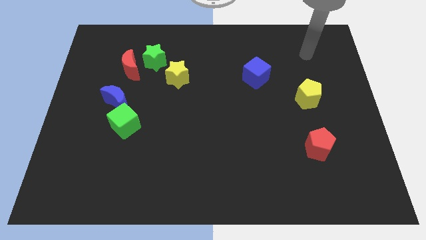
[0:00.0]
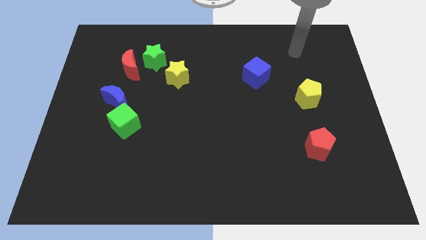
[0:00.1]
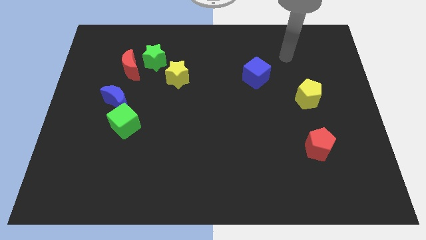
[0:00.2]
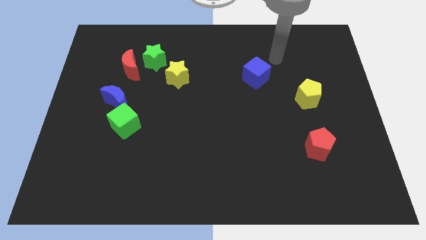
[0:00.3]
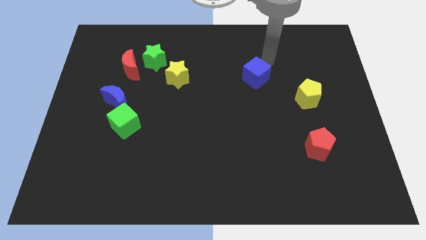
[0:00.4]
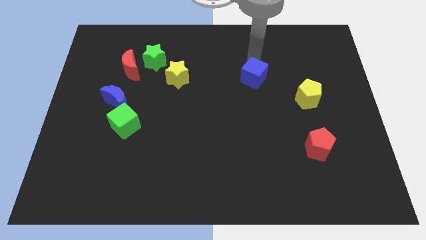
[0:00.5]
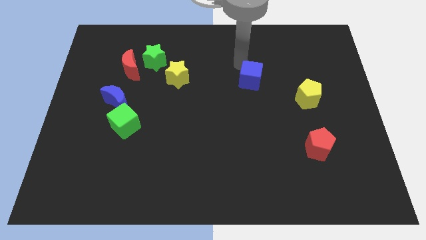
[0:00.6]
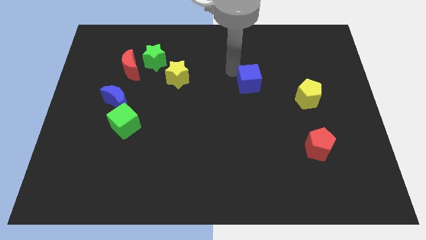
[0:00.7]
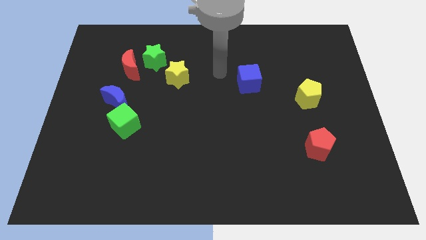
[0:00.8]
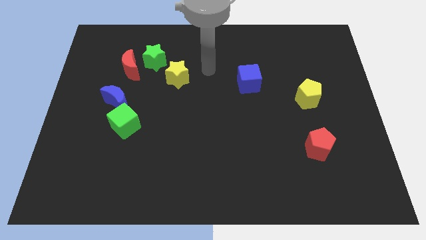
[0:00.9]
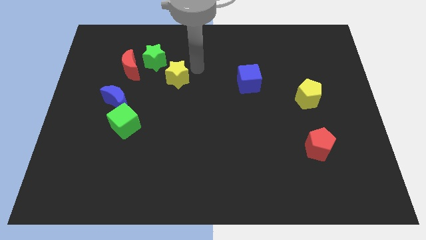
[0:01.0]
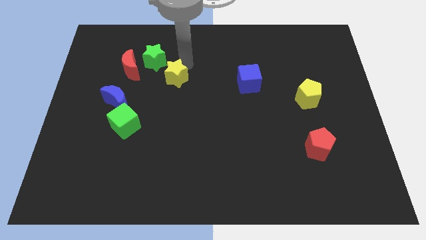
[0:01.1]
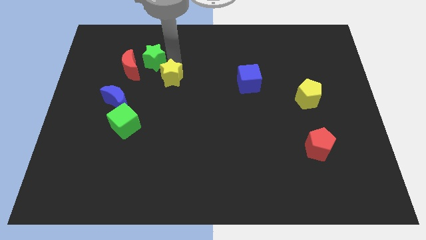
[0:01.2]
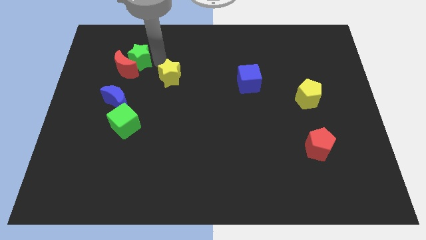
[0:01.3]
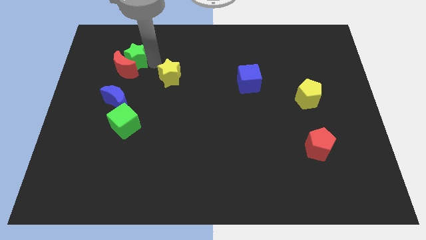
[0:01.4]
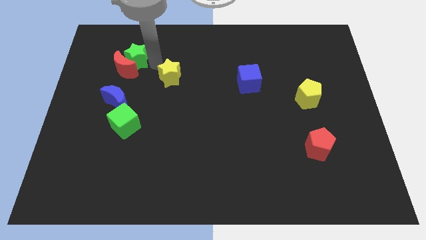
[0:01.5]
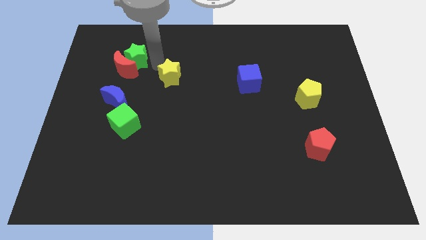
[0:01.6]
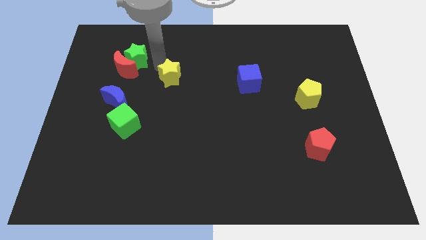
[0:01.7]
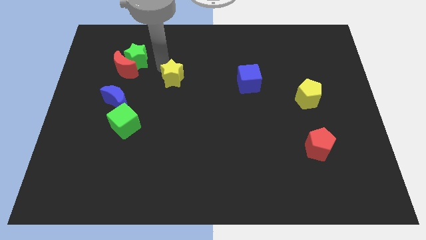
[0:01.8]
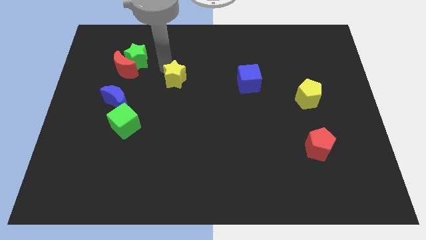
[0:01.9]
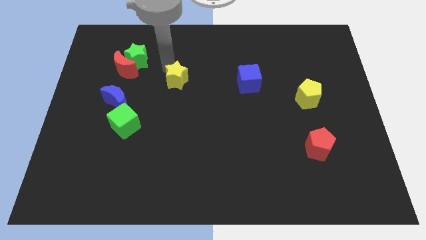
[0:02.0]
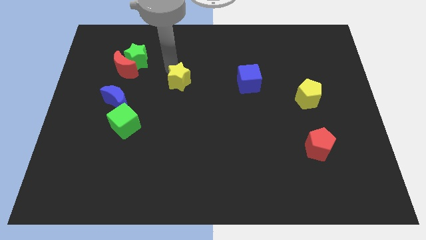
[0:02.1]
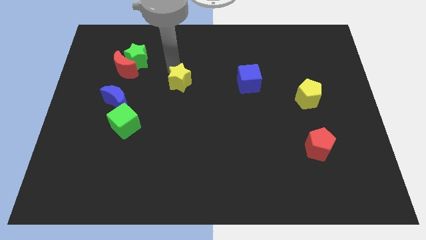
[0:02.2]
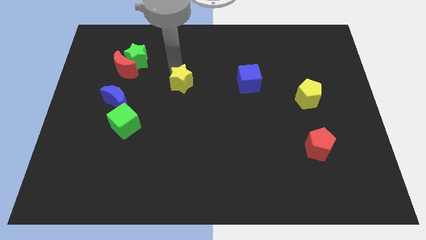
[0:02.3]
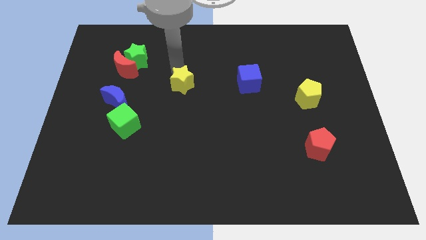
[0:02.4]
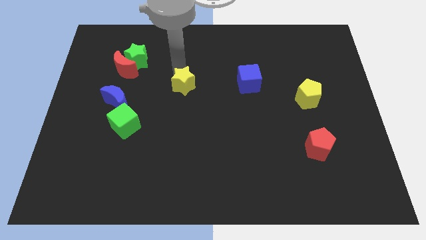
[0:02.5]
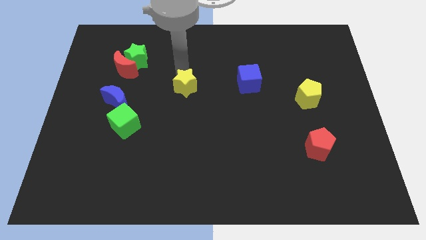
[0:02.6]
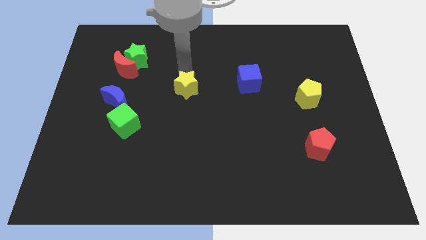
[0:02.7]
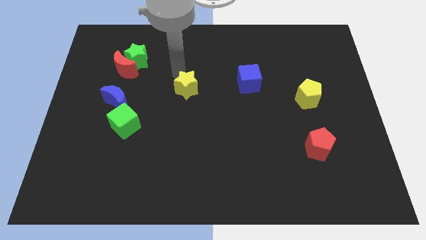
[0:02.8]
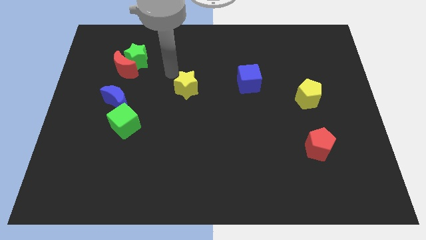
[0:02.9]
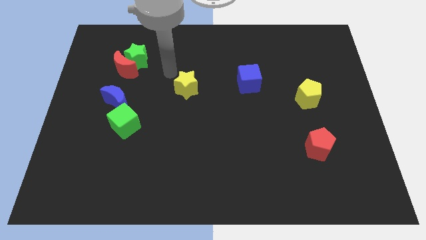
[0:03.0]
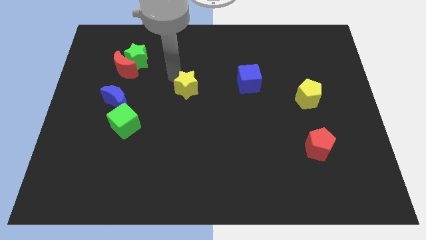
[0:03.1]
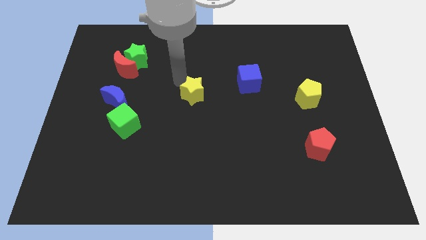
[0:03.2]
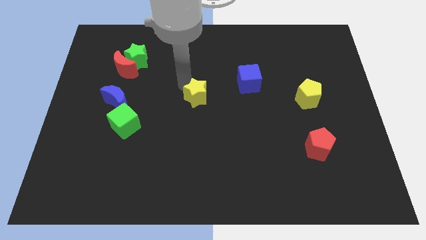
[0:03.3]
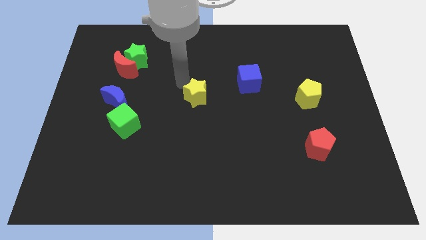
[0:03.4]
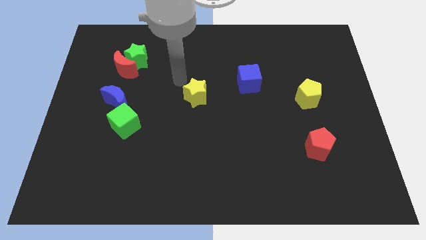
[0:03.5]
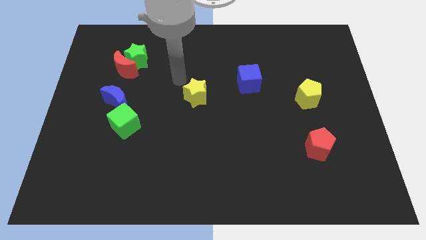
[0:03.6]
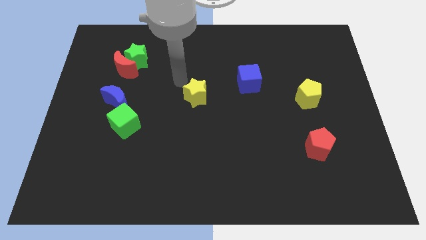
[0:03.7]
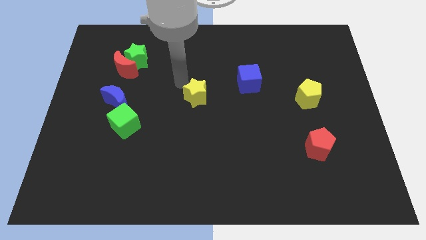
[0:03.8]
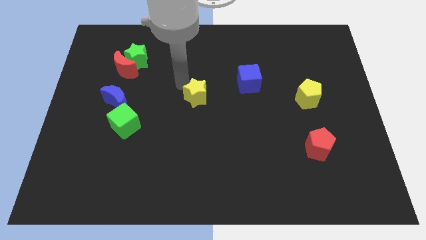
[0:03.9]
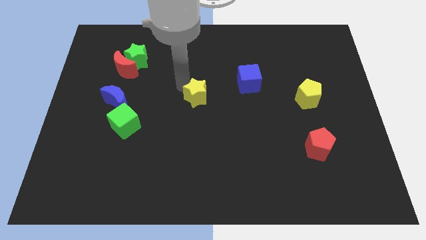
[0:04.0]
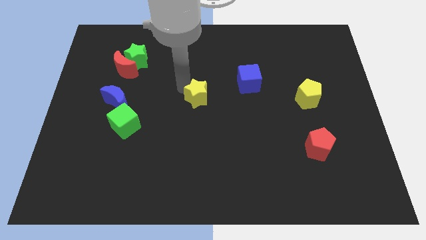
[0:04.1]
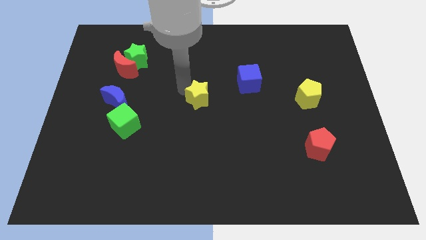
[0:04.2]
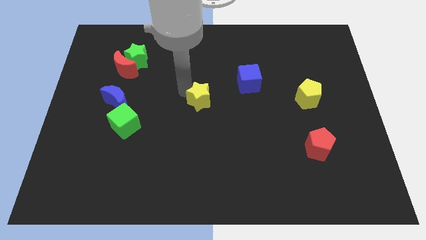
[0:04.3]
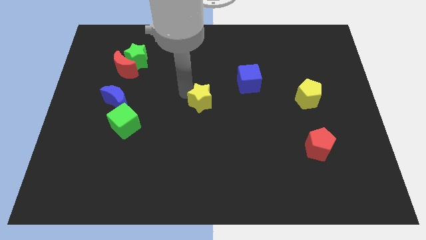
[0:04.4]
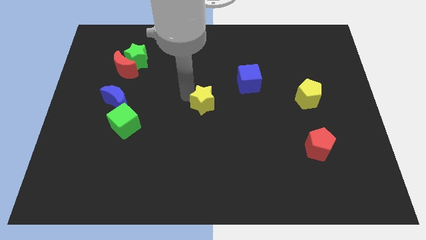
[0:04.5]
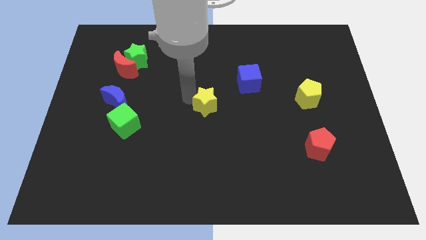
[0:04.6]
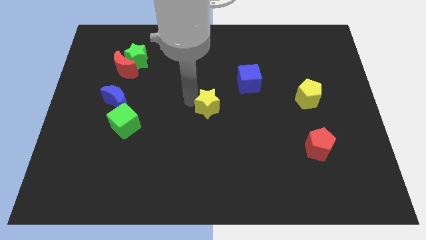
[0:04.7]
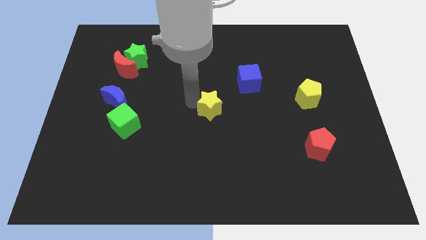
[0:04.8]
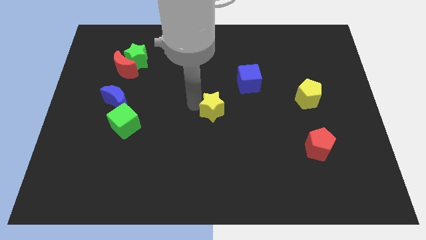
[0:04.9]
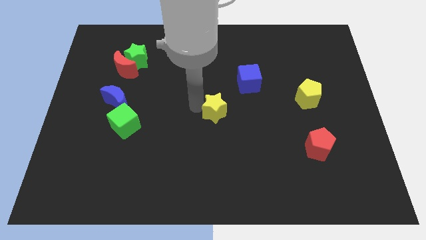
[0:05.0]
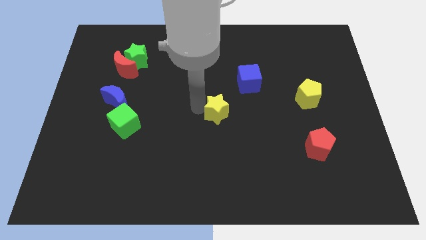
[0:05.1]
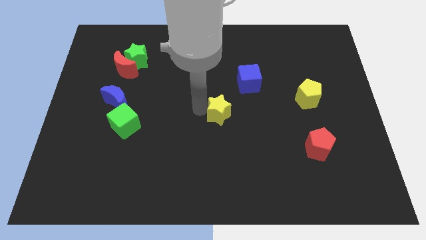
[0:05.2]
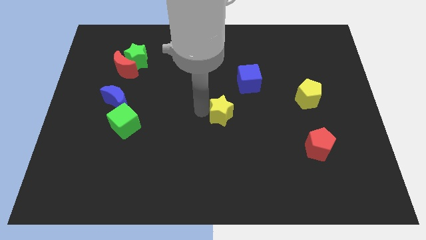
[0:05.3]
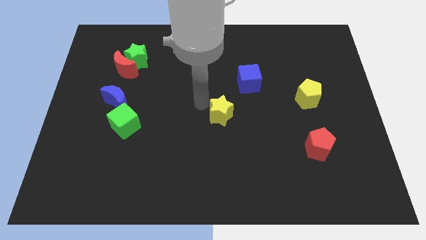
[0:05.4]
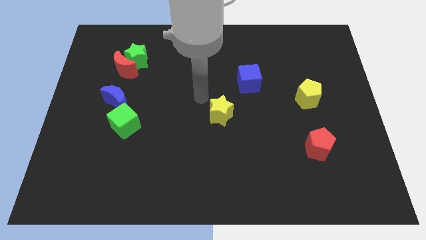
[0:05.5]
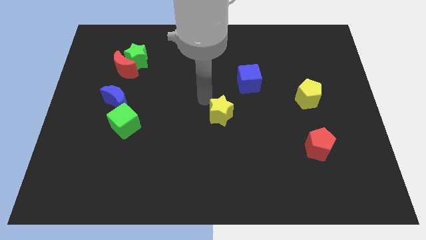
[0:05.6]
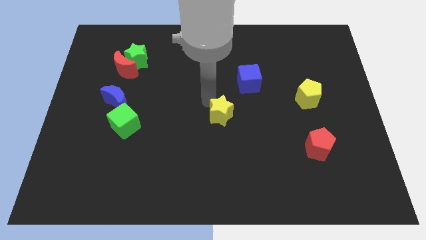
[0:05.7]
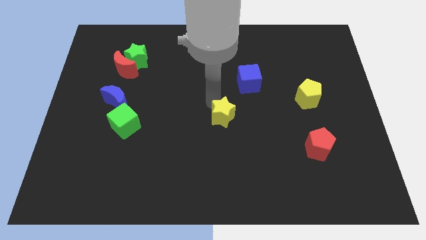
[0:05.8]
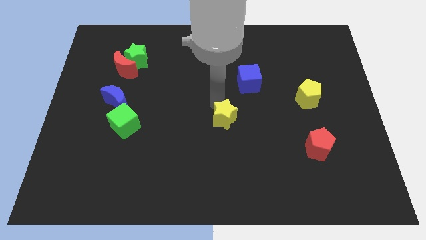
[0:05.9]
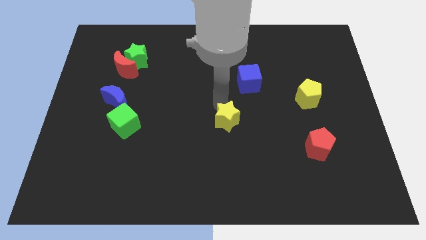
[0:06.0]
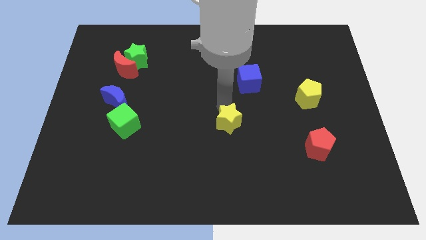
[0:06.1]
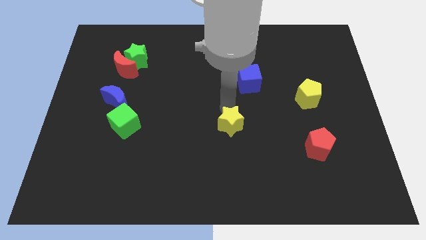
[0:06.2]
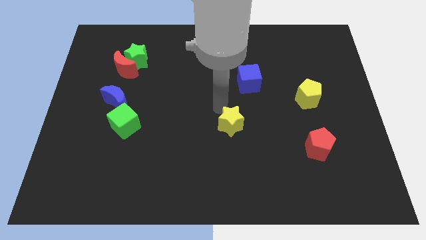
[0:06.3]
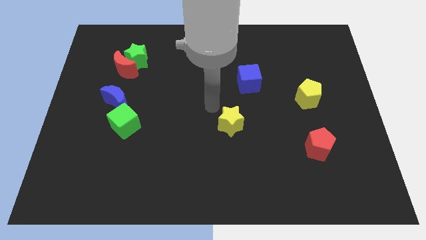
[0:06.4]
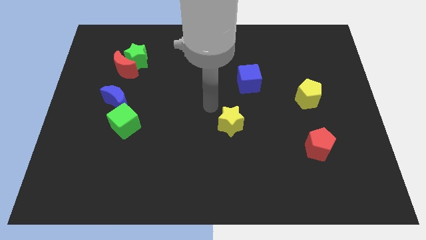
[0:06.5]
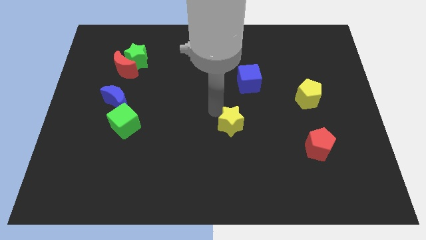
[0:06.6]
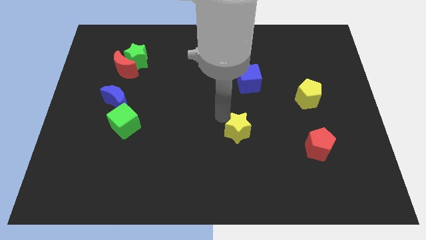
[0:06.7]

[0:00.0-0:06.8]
slide the yellow star downwards and right

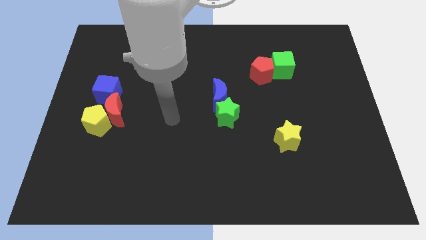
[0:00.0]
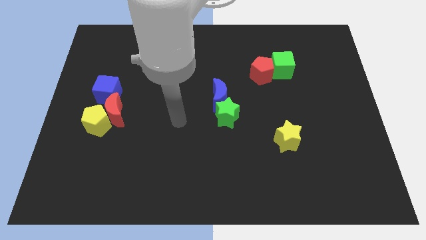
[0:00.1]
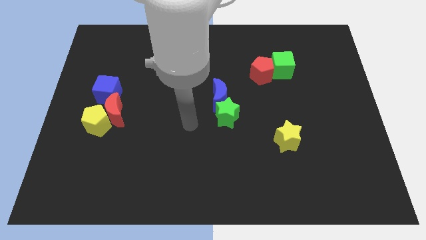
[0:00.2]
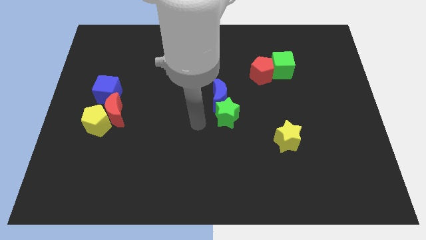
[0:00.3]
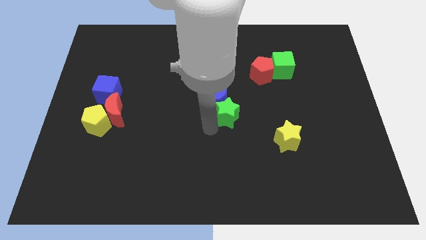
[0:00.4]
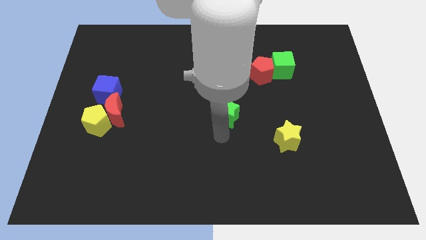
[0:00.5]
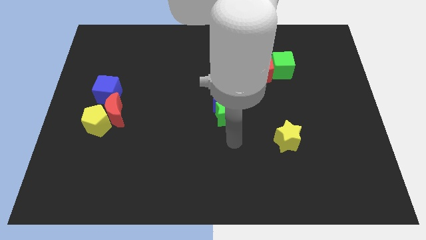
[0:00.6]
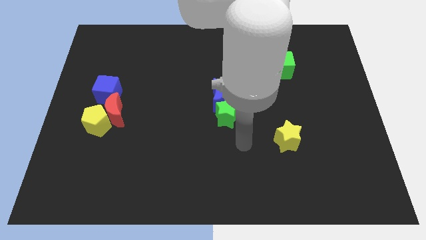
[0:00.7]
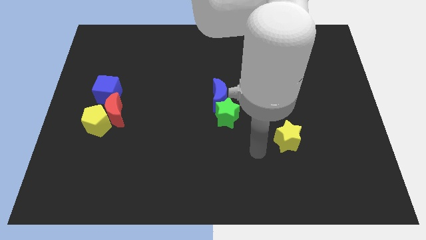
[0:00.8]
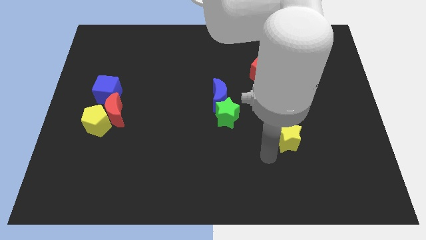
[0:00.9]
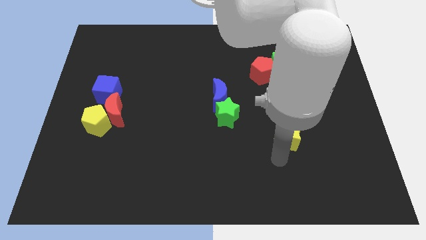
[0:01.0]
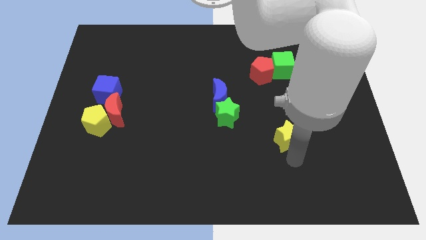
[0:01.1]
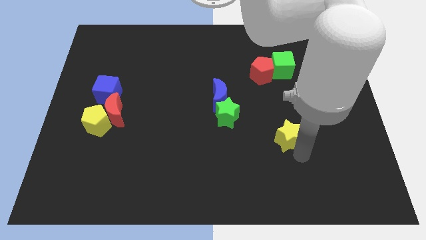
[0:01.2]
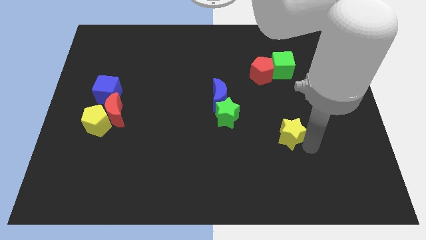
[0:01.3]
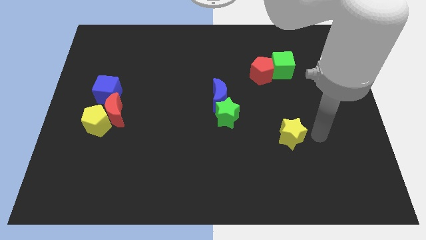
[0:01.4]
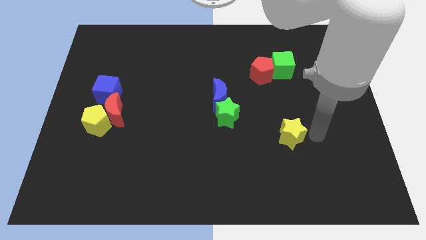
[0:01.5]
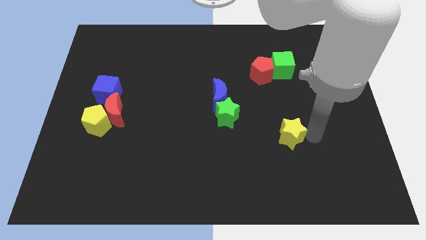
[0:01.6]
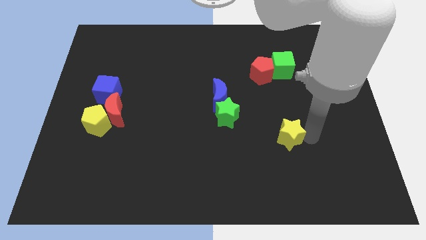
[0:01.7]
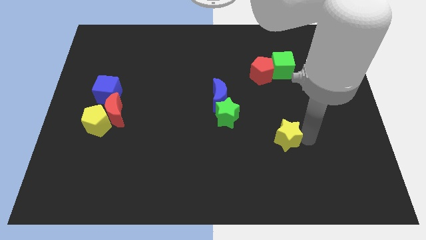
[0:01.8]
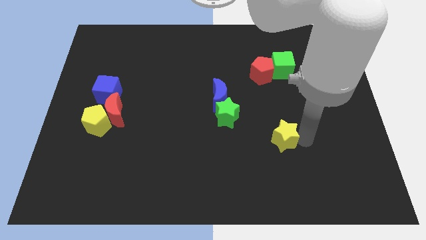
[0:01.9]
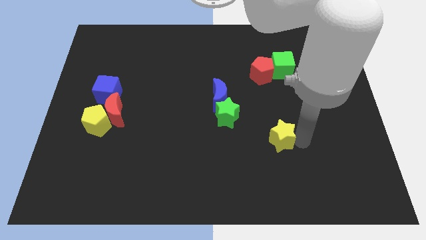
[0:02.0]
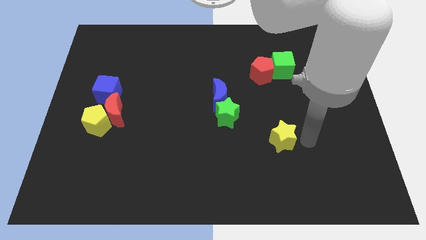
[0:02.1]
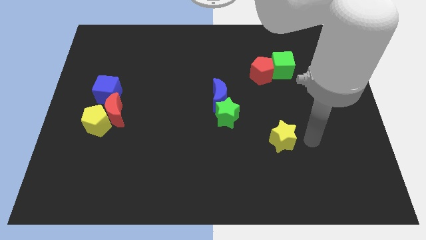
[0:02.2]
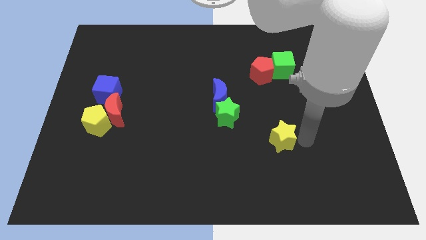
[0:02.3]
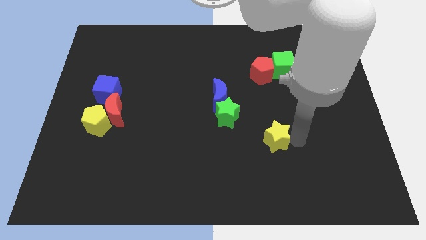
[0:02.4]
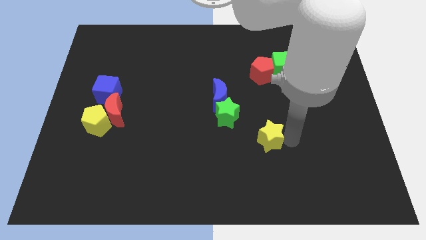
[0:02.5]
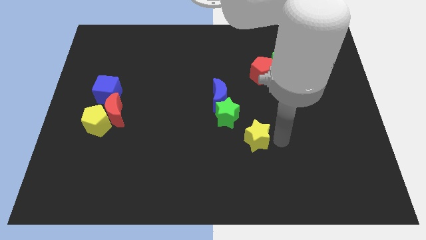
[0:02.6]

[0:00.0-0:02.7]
move the yellow star somewhat left
